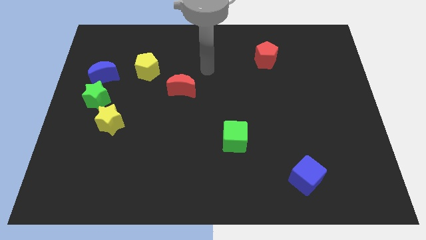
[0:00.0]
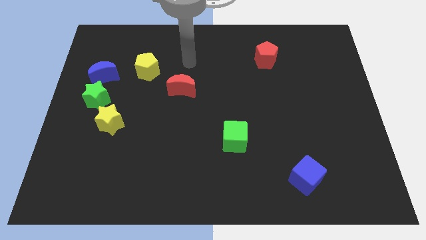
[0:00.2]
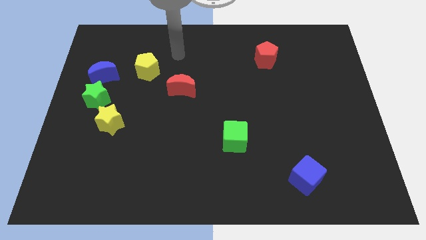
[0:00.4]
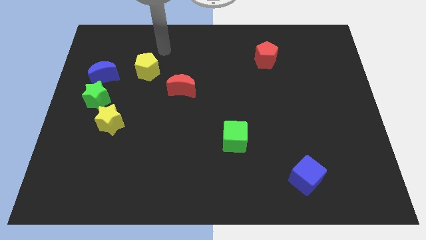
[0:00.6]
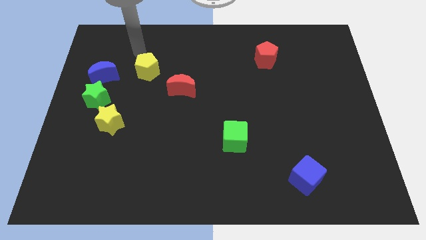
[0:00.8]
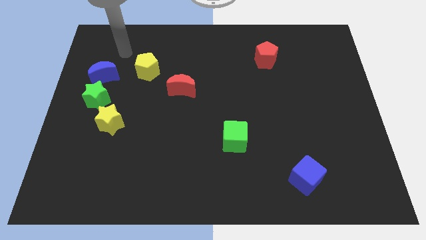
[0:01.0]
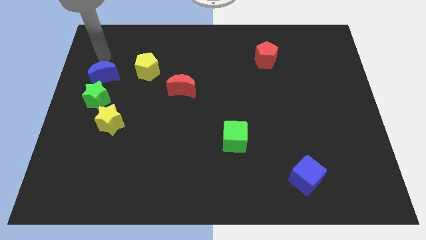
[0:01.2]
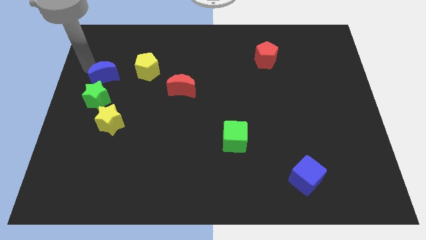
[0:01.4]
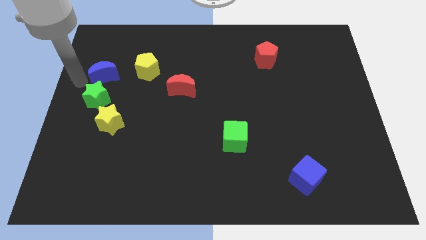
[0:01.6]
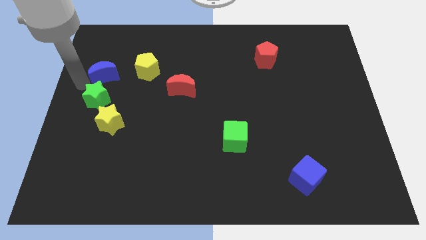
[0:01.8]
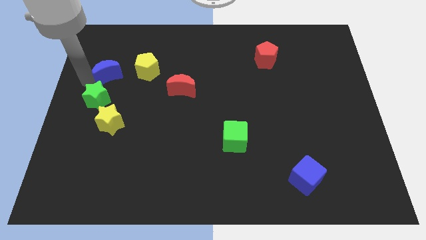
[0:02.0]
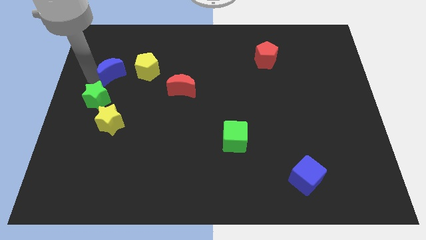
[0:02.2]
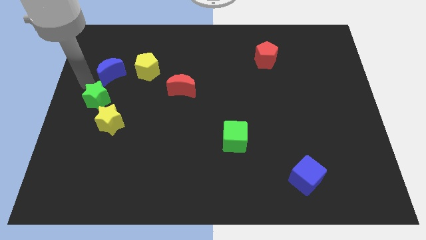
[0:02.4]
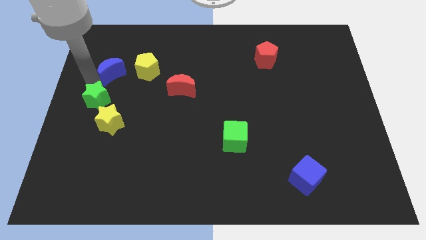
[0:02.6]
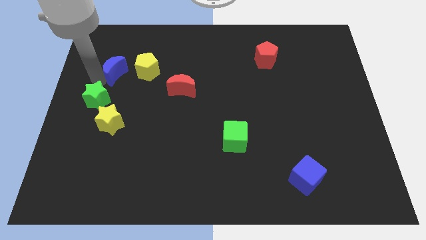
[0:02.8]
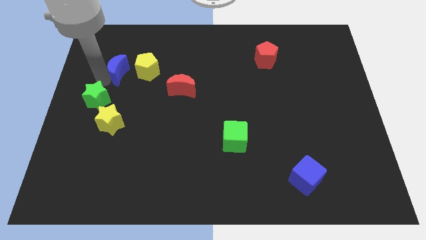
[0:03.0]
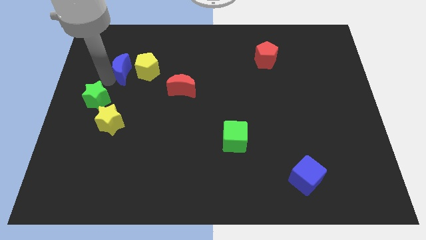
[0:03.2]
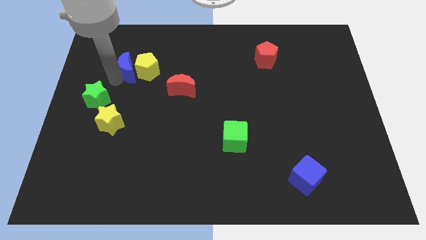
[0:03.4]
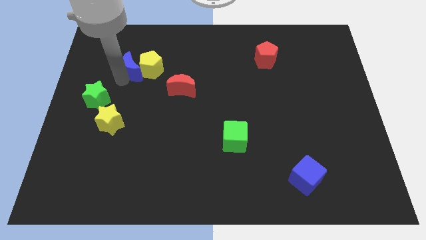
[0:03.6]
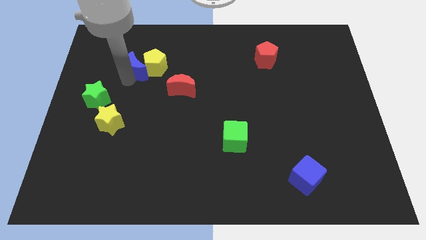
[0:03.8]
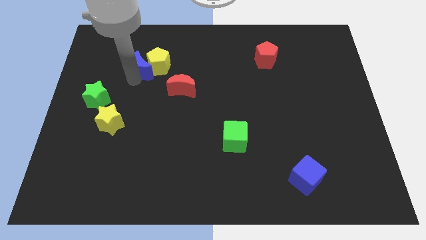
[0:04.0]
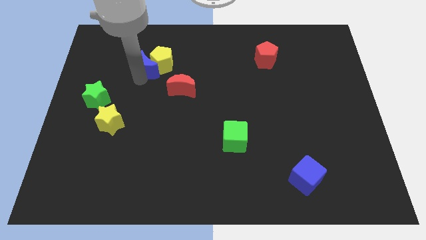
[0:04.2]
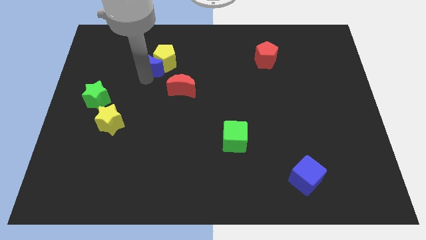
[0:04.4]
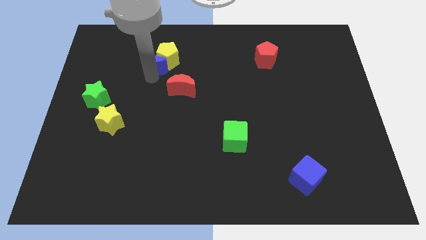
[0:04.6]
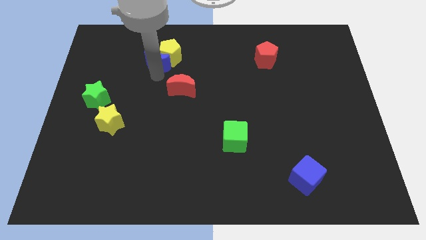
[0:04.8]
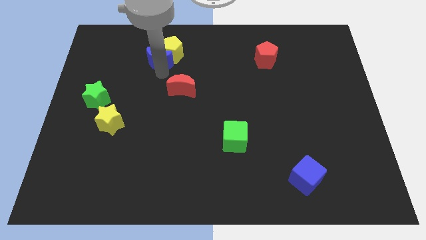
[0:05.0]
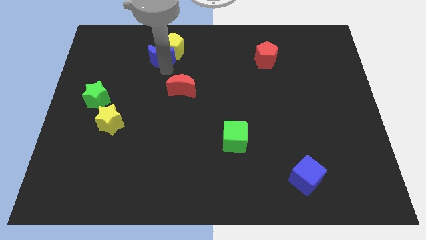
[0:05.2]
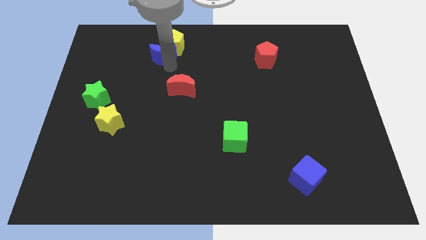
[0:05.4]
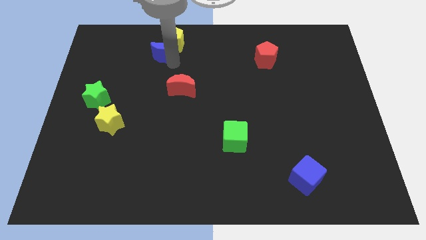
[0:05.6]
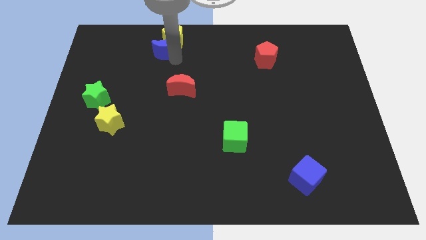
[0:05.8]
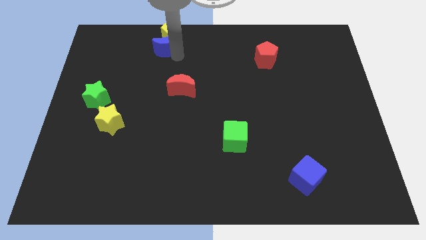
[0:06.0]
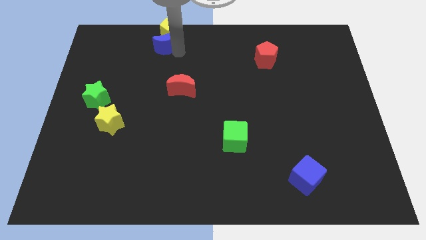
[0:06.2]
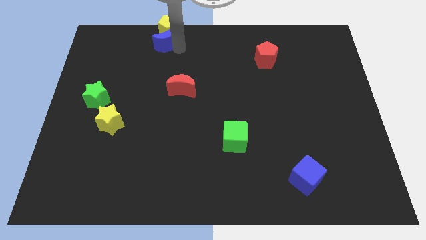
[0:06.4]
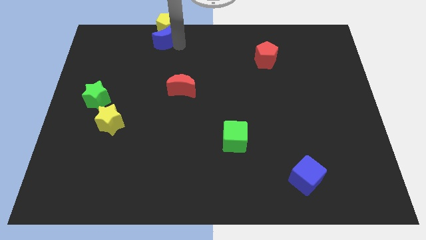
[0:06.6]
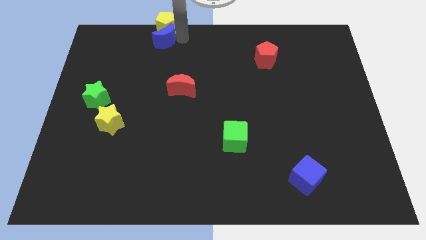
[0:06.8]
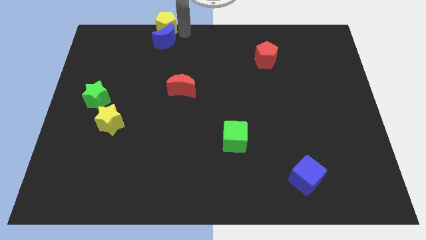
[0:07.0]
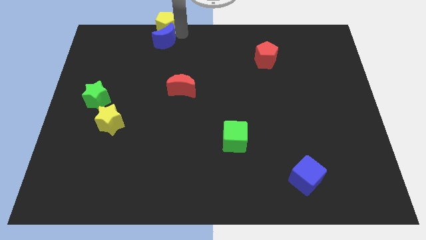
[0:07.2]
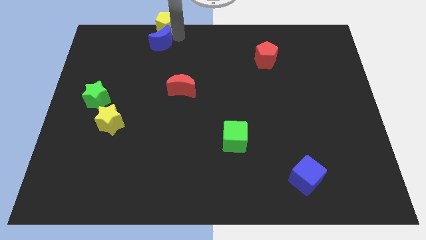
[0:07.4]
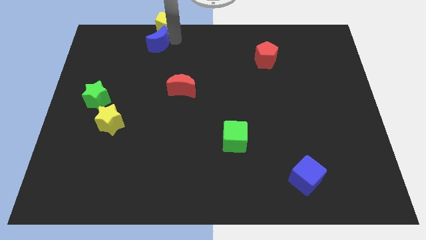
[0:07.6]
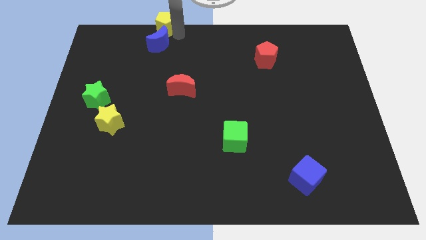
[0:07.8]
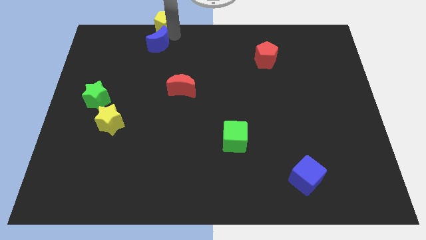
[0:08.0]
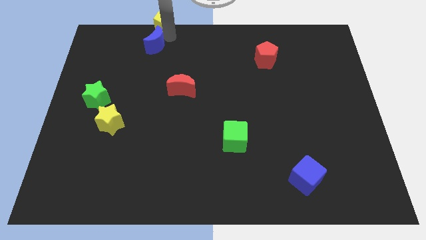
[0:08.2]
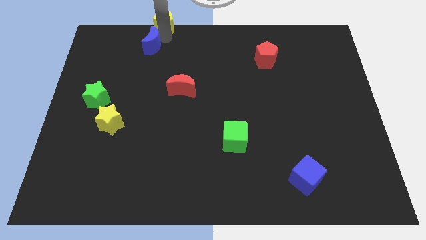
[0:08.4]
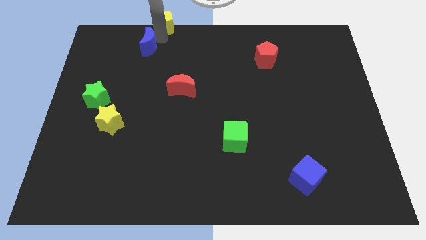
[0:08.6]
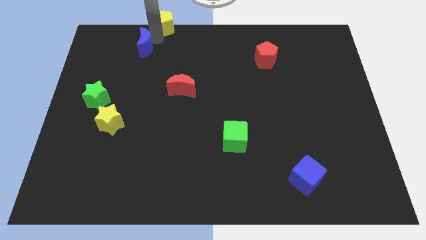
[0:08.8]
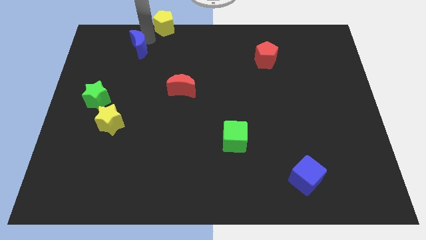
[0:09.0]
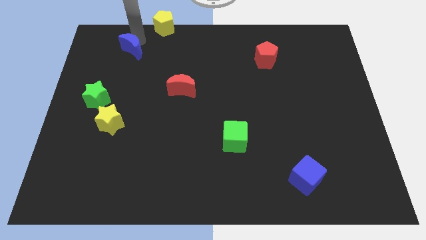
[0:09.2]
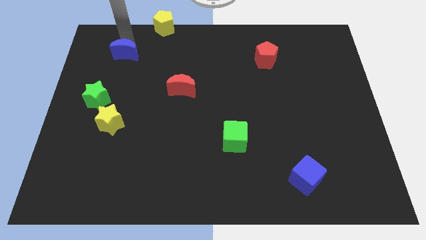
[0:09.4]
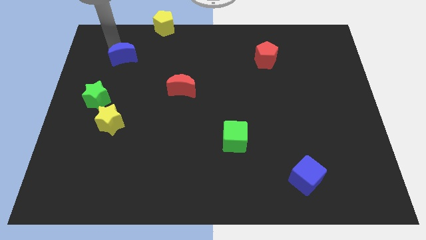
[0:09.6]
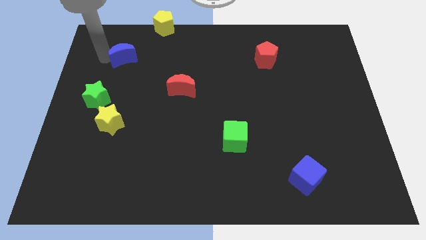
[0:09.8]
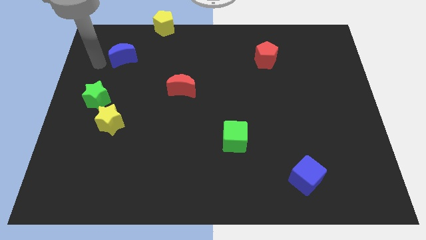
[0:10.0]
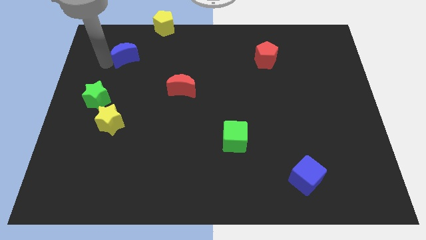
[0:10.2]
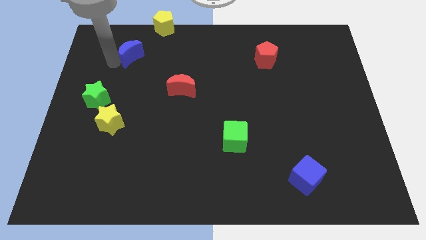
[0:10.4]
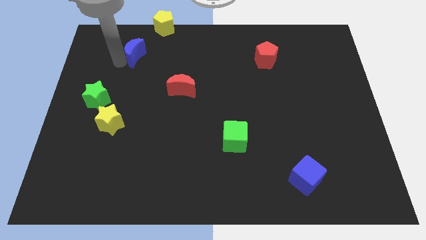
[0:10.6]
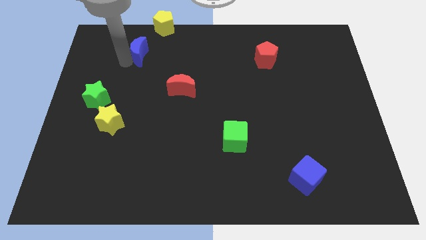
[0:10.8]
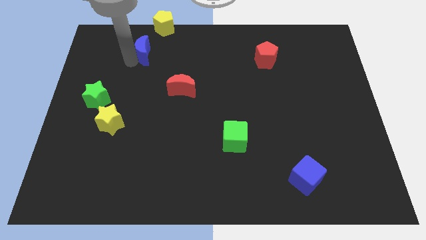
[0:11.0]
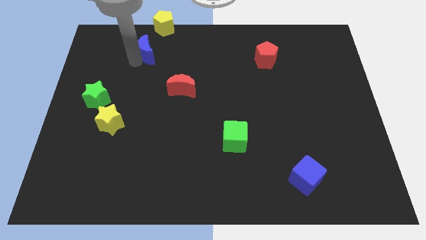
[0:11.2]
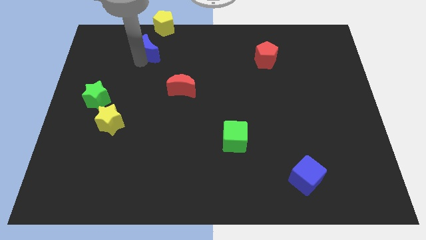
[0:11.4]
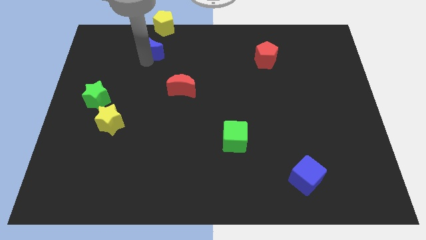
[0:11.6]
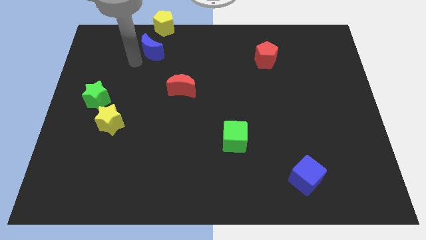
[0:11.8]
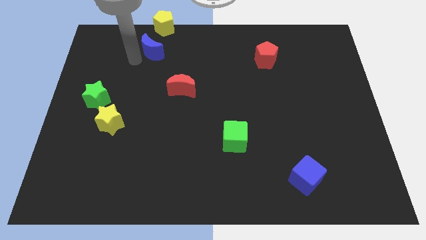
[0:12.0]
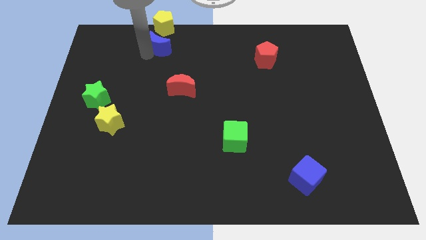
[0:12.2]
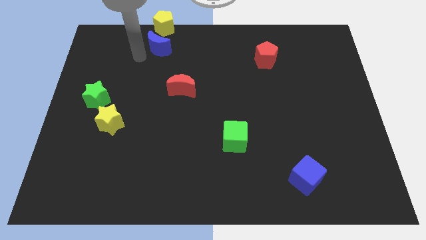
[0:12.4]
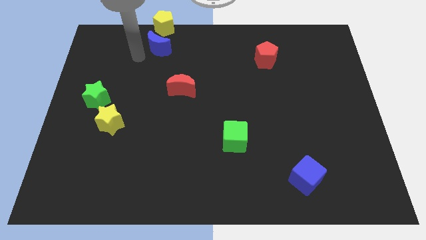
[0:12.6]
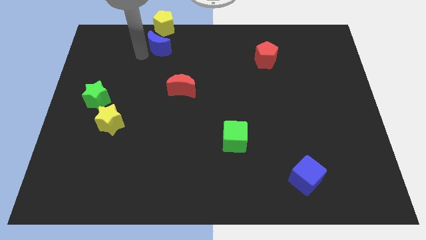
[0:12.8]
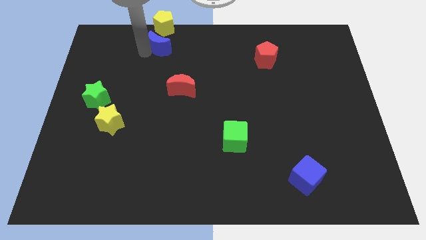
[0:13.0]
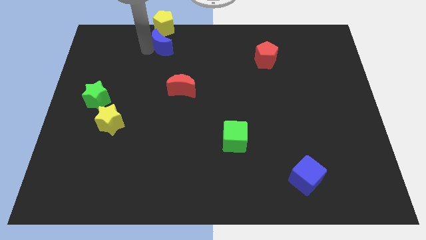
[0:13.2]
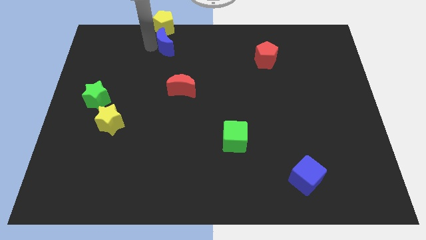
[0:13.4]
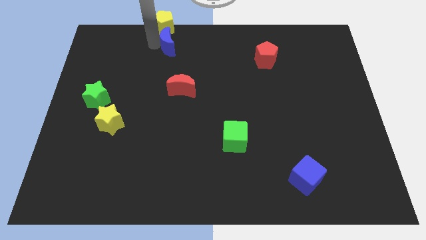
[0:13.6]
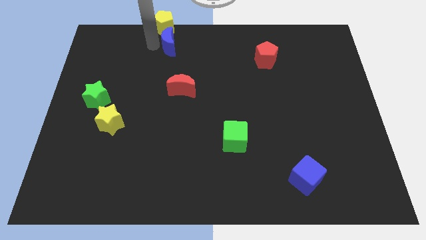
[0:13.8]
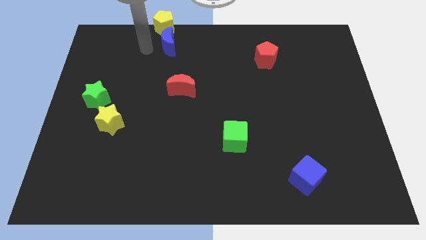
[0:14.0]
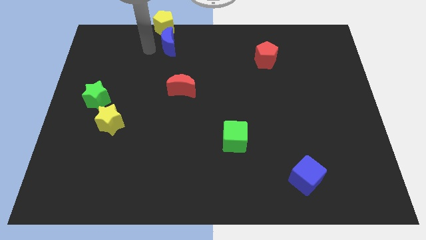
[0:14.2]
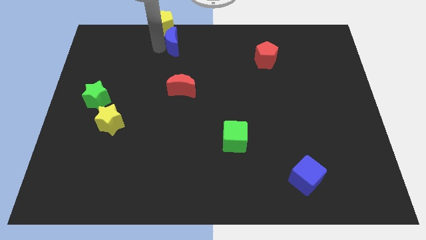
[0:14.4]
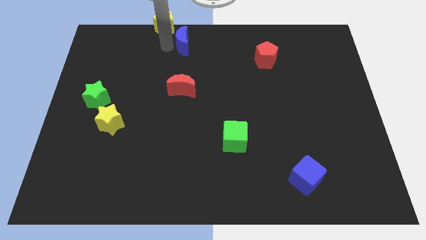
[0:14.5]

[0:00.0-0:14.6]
push the blue moon to the top
